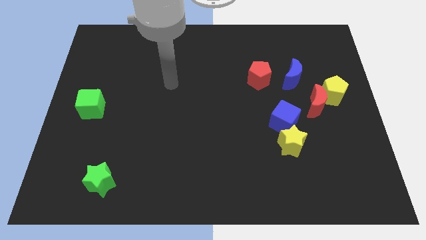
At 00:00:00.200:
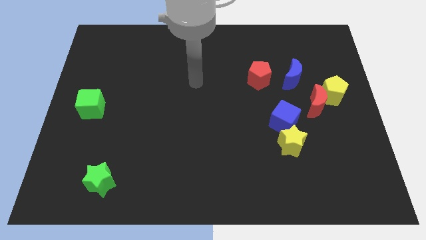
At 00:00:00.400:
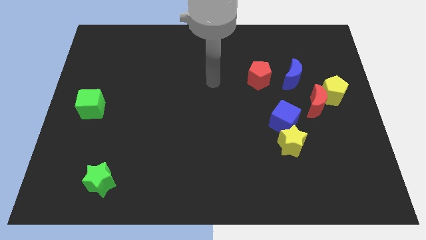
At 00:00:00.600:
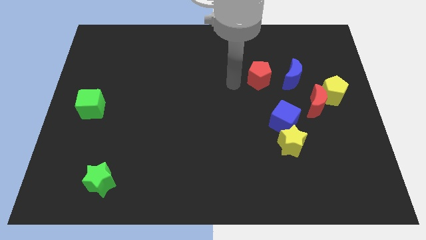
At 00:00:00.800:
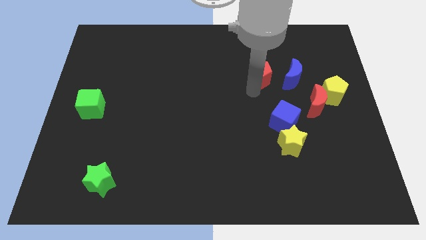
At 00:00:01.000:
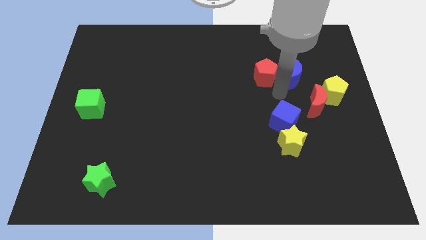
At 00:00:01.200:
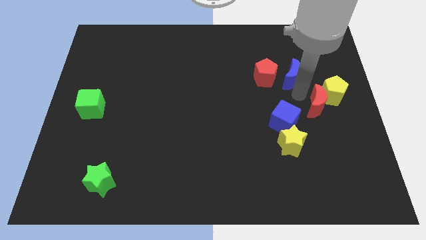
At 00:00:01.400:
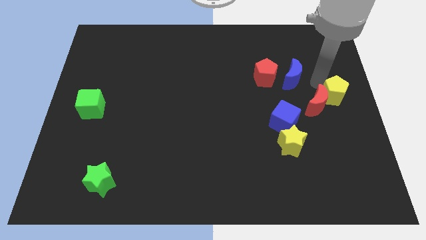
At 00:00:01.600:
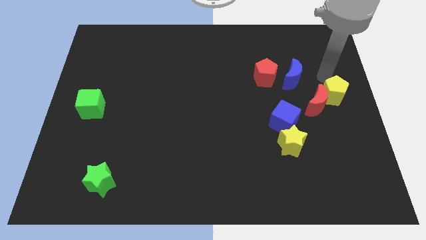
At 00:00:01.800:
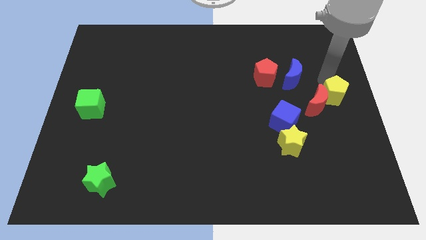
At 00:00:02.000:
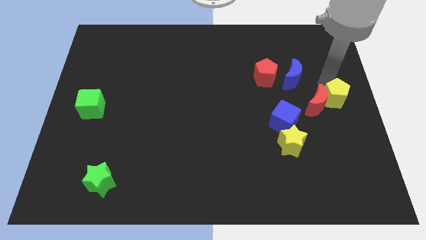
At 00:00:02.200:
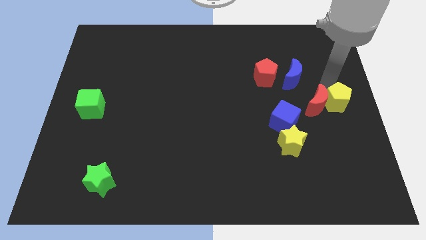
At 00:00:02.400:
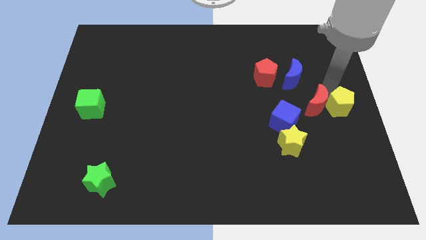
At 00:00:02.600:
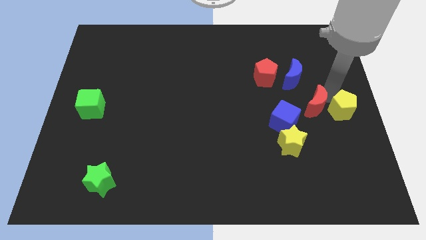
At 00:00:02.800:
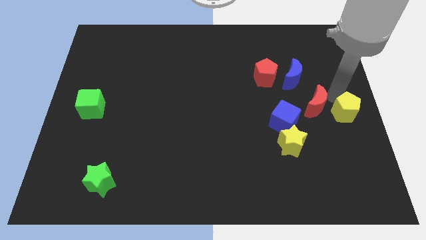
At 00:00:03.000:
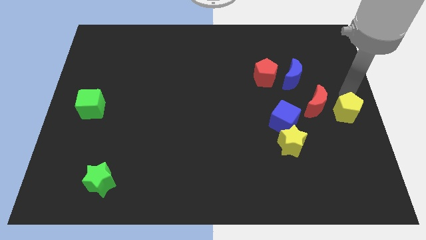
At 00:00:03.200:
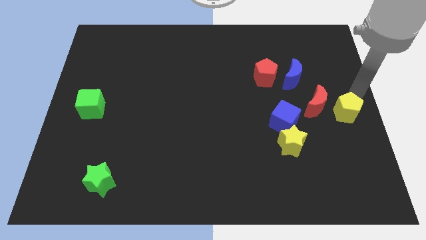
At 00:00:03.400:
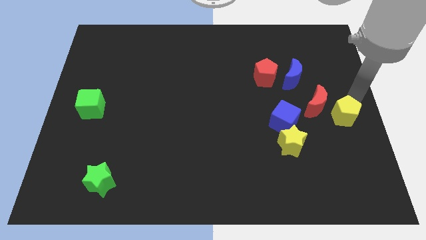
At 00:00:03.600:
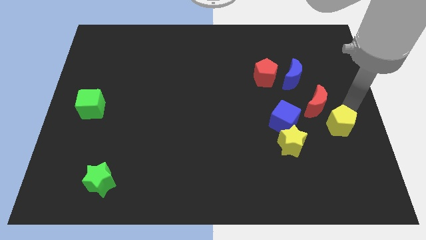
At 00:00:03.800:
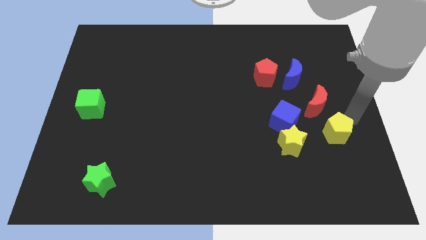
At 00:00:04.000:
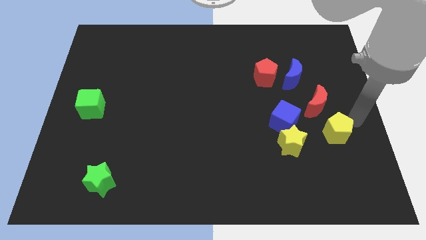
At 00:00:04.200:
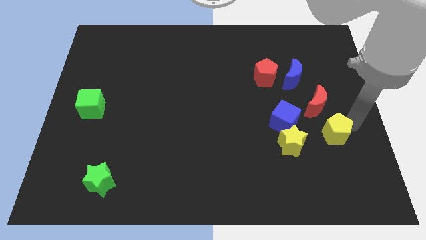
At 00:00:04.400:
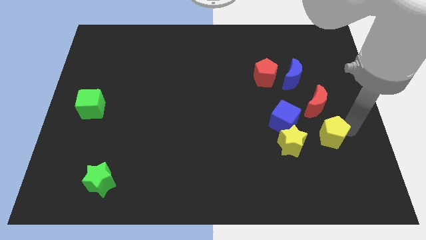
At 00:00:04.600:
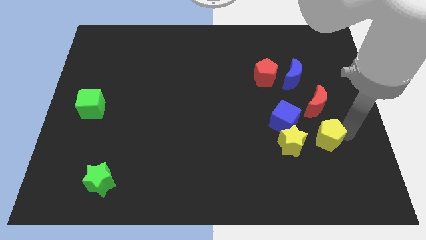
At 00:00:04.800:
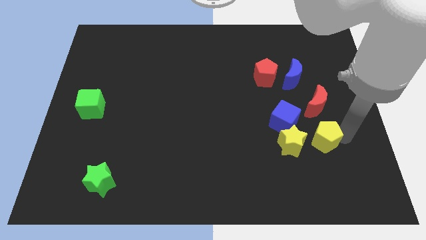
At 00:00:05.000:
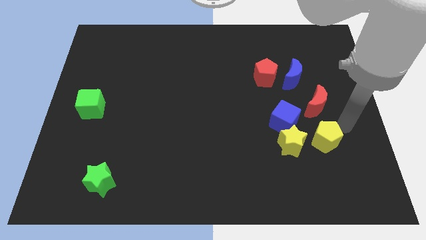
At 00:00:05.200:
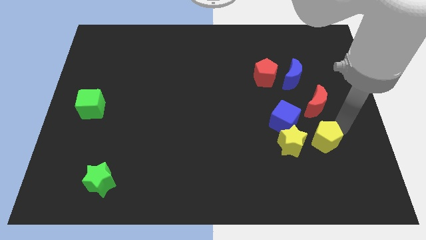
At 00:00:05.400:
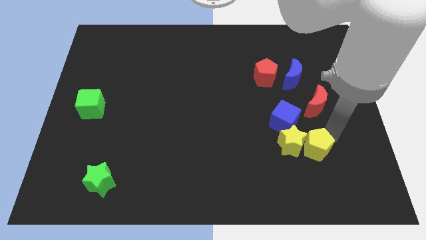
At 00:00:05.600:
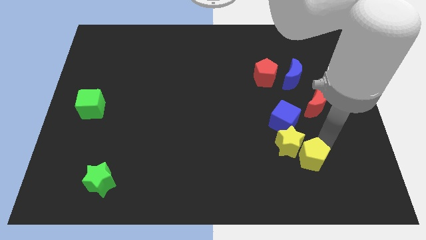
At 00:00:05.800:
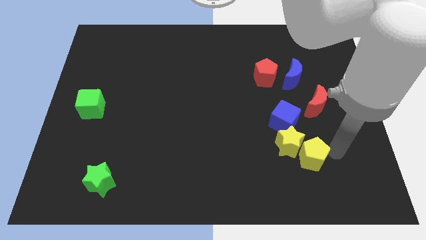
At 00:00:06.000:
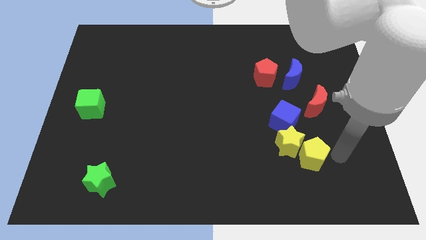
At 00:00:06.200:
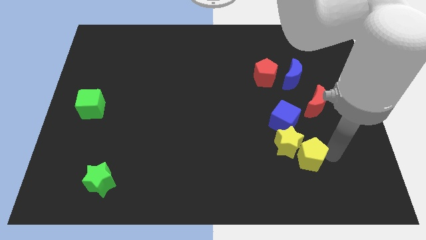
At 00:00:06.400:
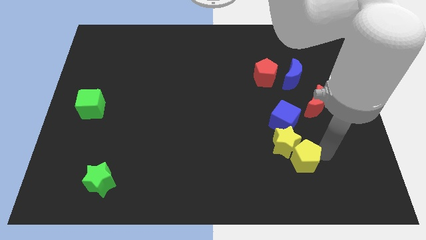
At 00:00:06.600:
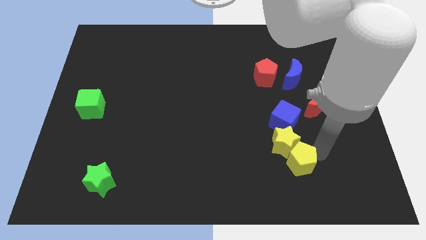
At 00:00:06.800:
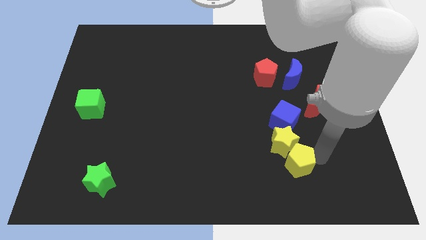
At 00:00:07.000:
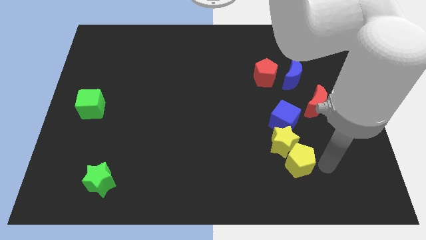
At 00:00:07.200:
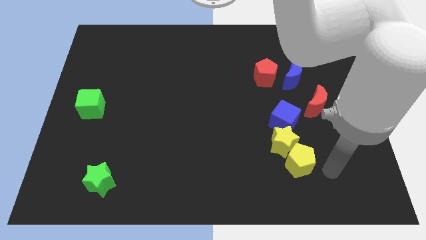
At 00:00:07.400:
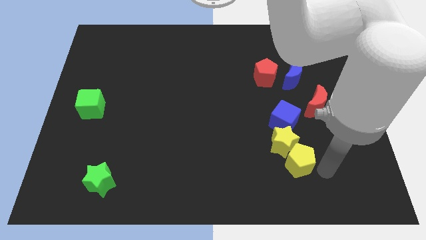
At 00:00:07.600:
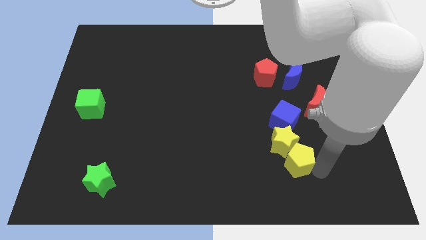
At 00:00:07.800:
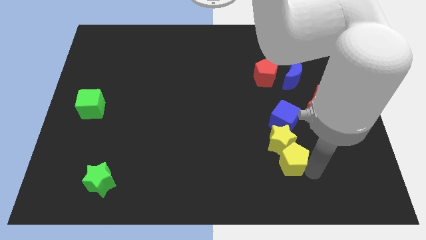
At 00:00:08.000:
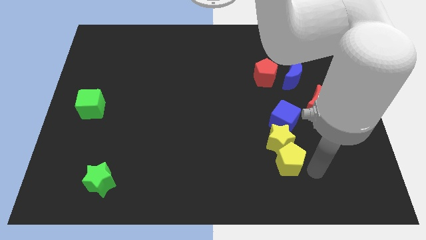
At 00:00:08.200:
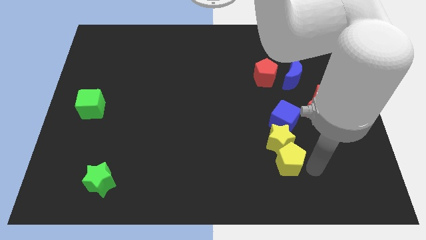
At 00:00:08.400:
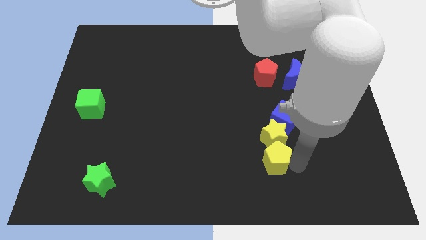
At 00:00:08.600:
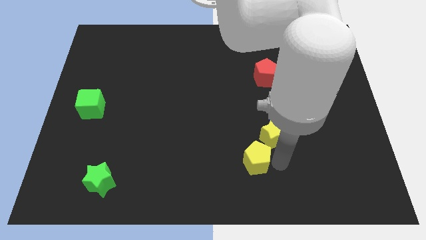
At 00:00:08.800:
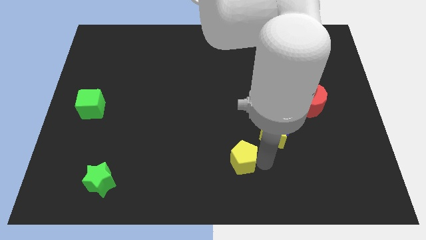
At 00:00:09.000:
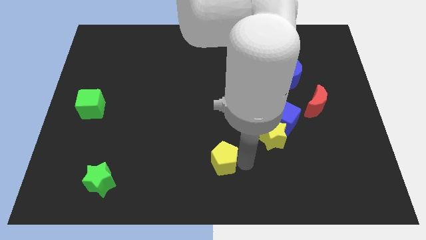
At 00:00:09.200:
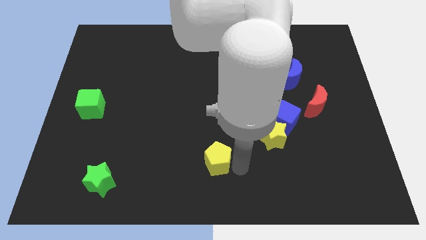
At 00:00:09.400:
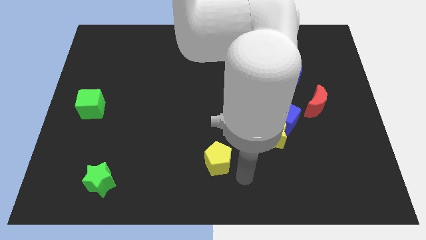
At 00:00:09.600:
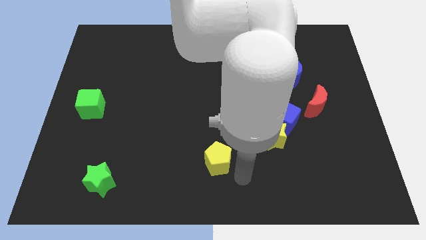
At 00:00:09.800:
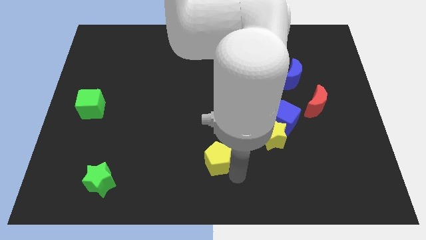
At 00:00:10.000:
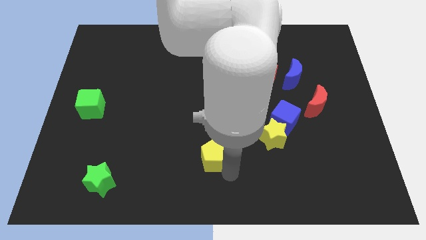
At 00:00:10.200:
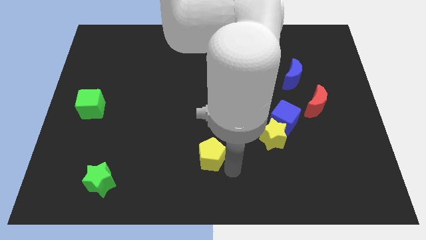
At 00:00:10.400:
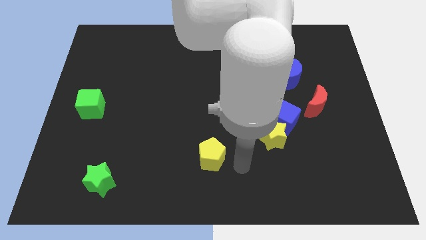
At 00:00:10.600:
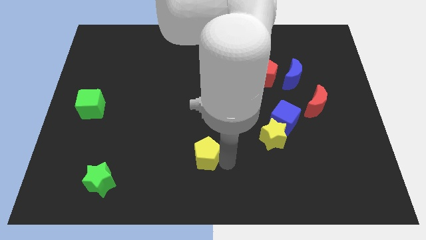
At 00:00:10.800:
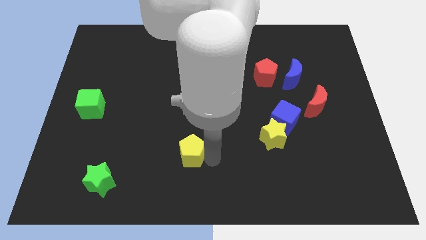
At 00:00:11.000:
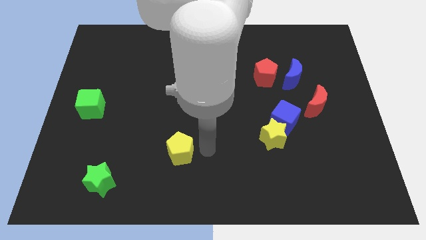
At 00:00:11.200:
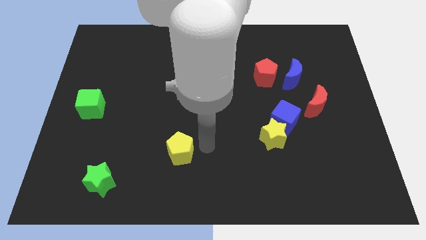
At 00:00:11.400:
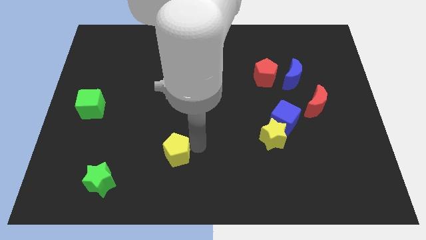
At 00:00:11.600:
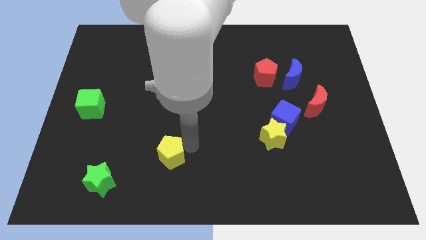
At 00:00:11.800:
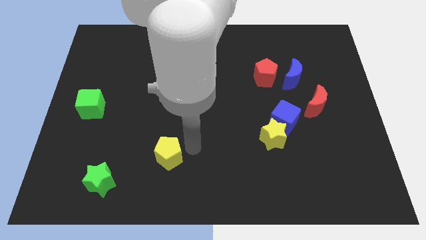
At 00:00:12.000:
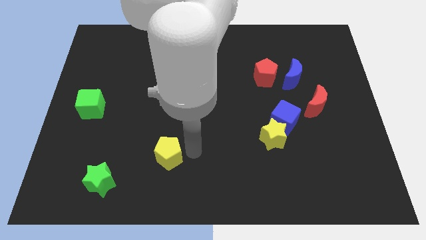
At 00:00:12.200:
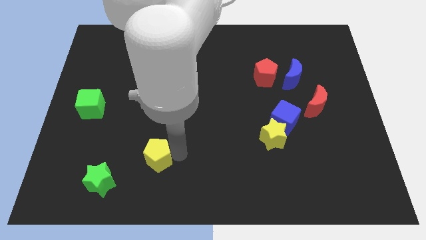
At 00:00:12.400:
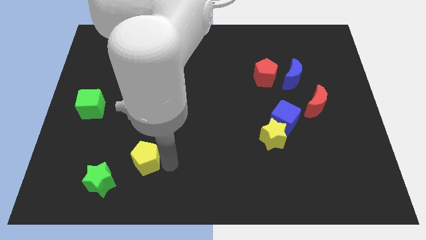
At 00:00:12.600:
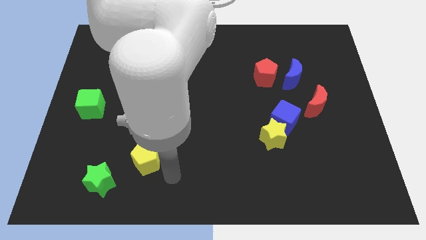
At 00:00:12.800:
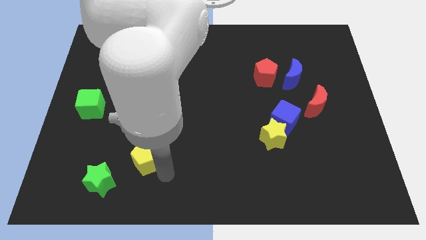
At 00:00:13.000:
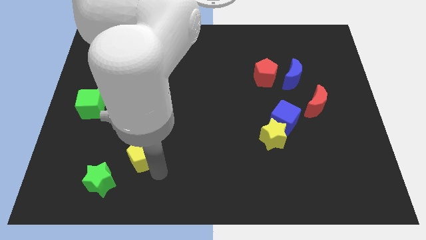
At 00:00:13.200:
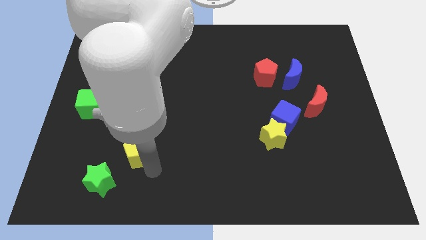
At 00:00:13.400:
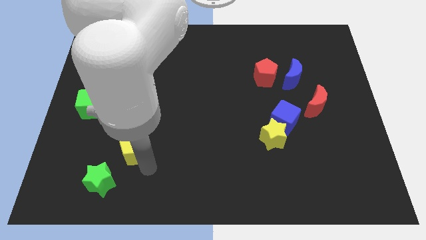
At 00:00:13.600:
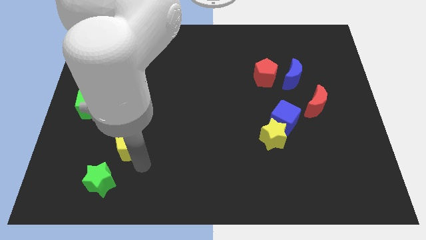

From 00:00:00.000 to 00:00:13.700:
slide the yellow pentagon to the top of the green star

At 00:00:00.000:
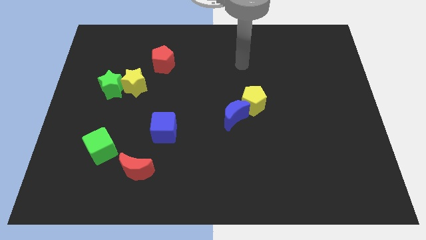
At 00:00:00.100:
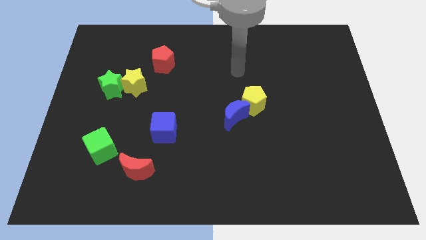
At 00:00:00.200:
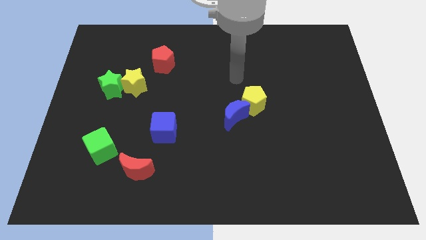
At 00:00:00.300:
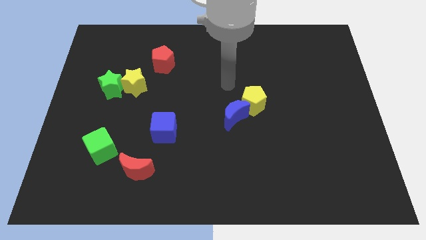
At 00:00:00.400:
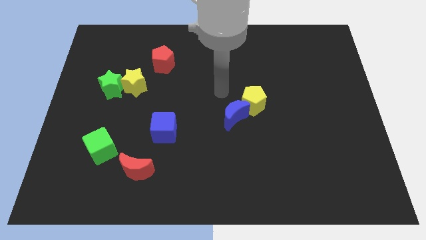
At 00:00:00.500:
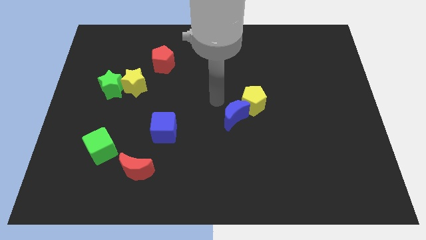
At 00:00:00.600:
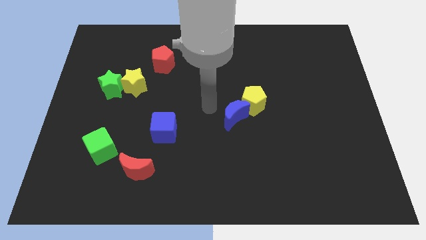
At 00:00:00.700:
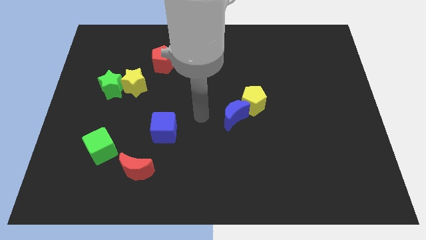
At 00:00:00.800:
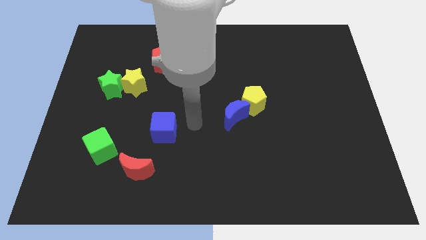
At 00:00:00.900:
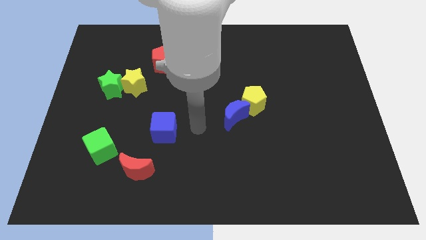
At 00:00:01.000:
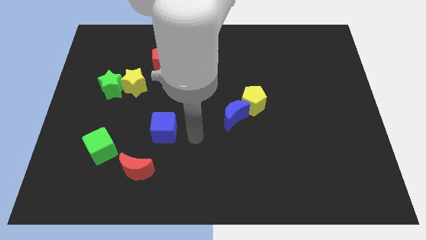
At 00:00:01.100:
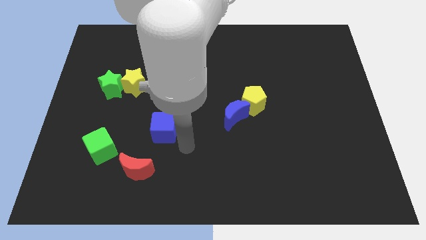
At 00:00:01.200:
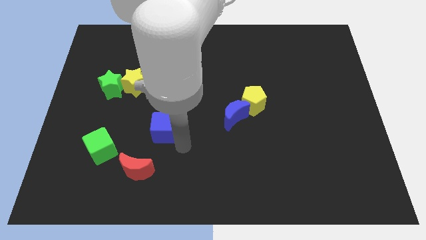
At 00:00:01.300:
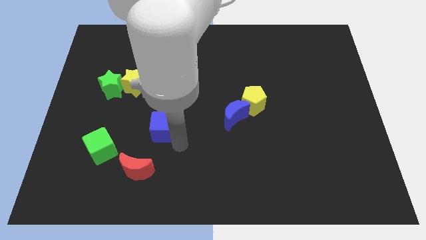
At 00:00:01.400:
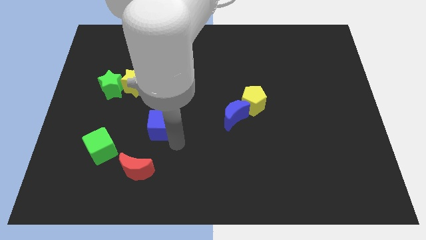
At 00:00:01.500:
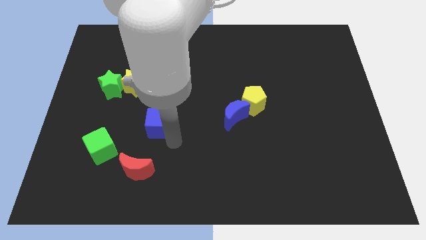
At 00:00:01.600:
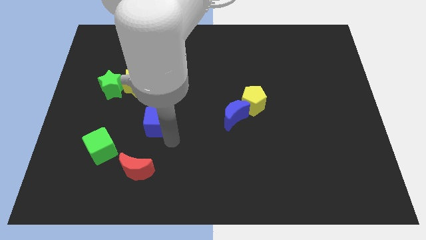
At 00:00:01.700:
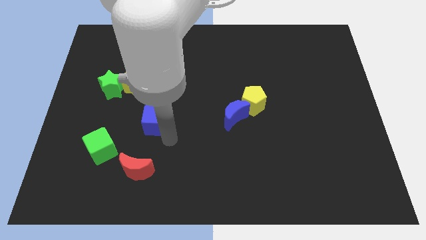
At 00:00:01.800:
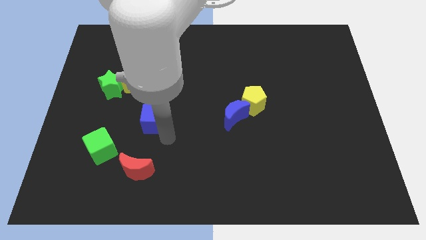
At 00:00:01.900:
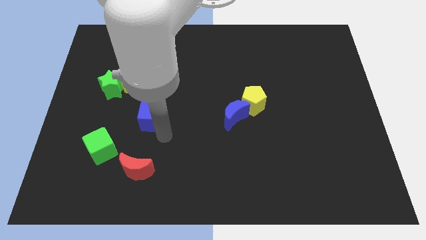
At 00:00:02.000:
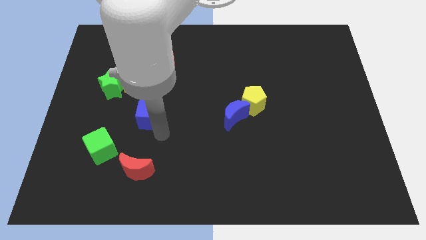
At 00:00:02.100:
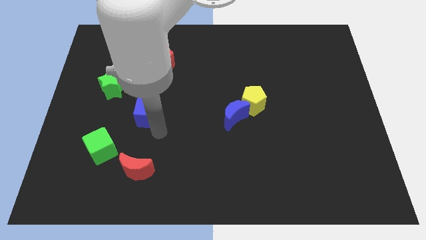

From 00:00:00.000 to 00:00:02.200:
put the blue cube to the bottom right of the green star
